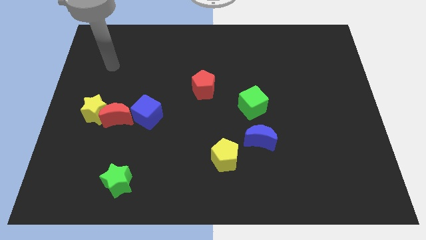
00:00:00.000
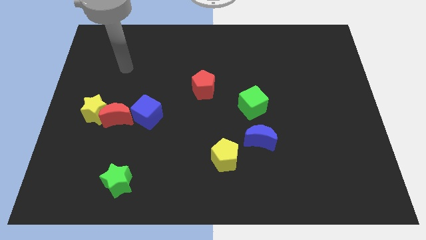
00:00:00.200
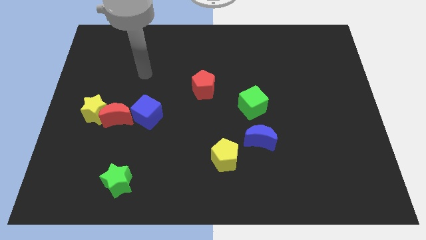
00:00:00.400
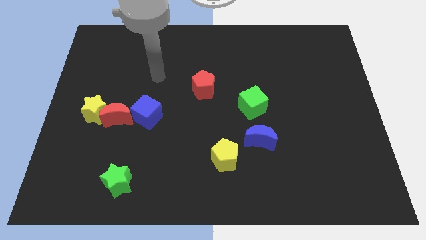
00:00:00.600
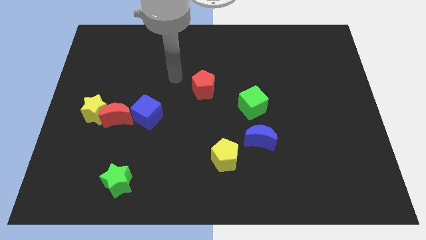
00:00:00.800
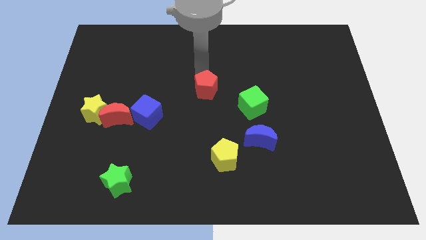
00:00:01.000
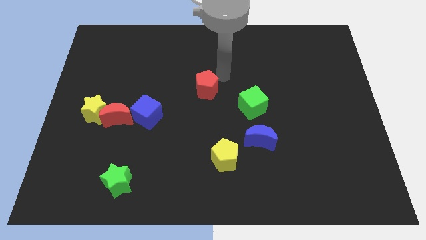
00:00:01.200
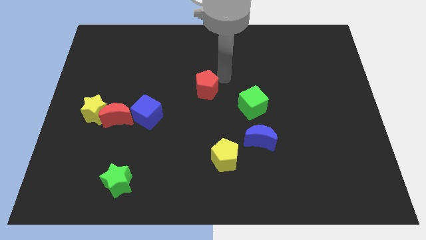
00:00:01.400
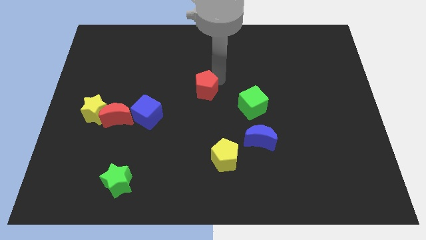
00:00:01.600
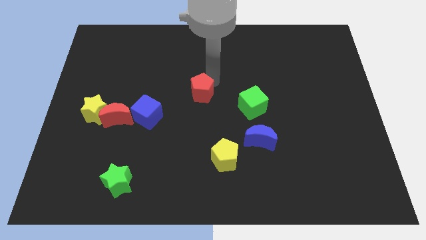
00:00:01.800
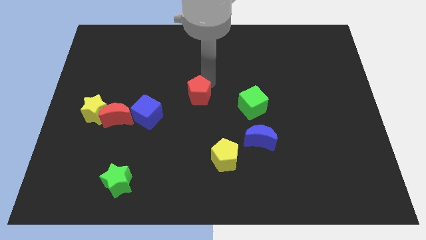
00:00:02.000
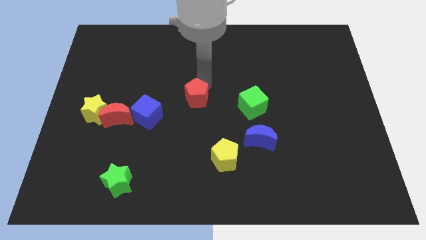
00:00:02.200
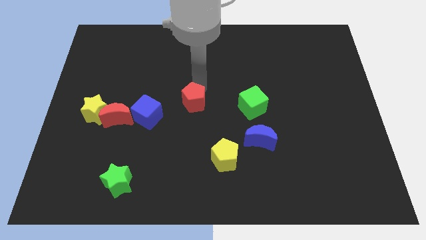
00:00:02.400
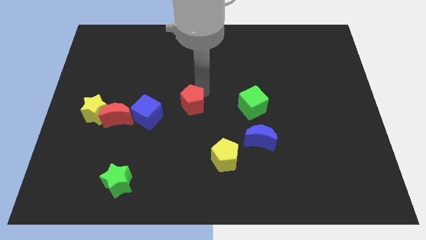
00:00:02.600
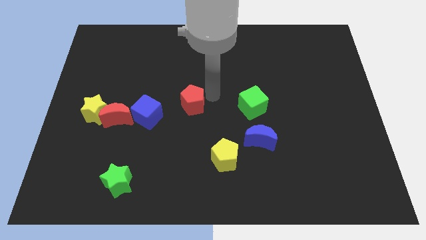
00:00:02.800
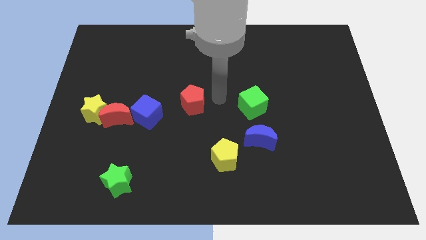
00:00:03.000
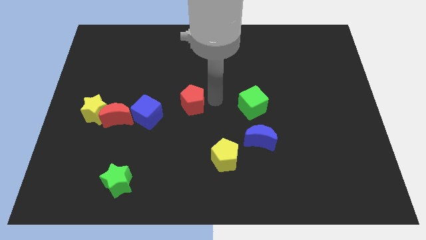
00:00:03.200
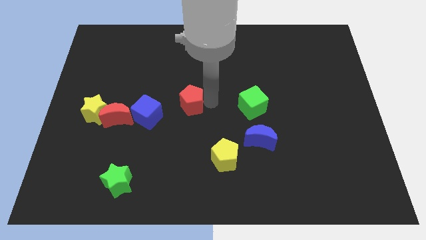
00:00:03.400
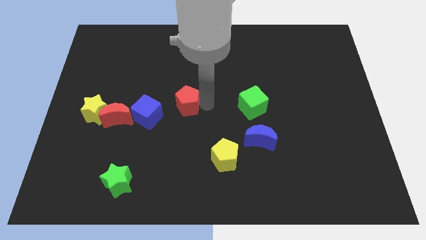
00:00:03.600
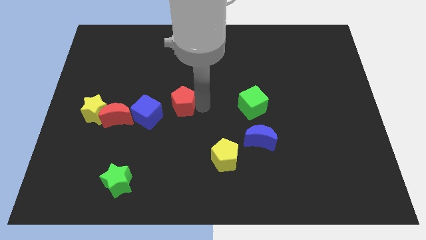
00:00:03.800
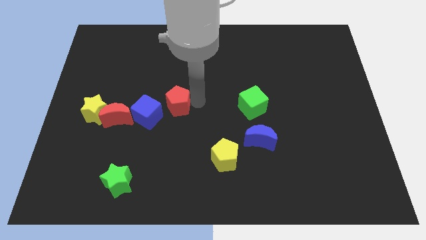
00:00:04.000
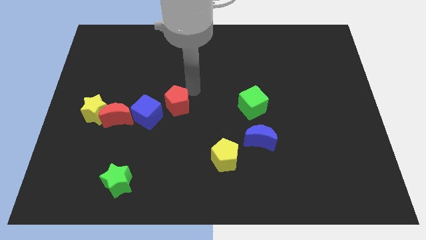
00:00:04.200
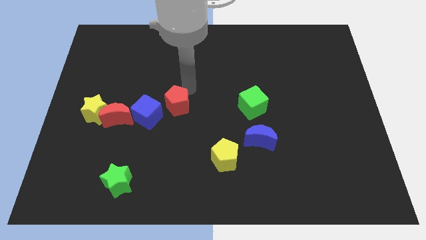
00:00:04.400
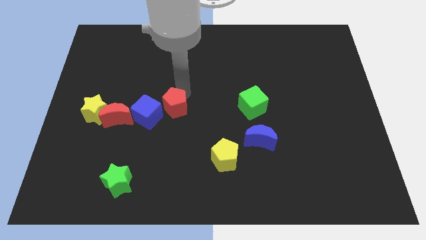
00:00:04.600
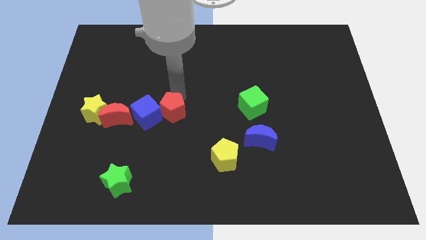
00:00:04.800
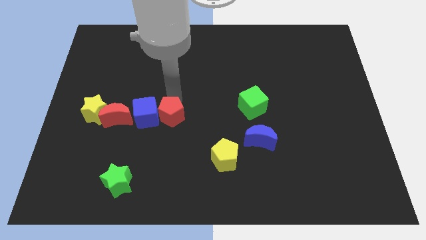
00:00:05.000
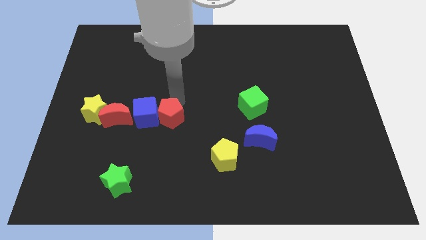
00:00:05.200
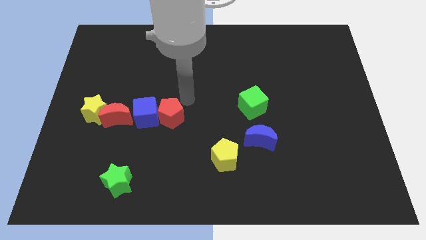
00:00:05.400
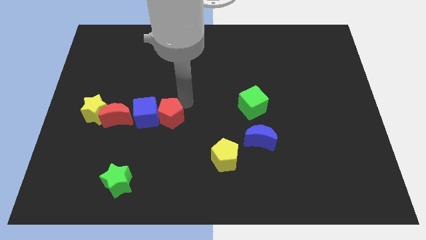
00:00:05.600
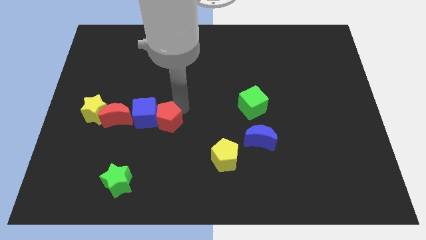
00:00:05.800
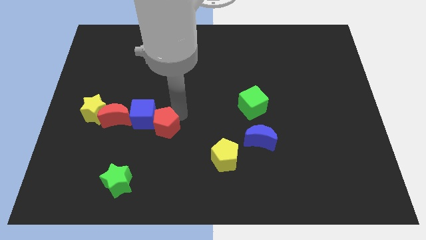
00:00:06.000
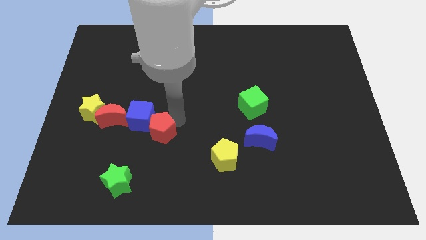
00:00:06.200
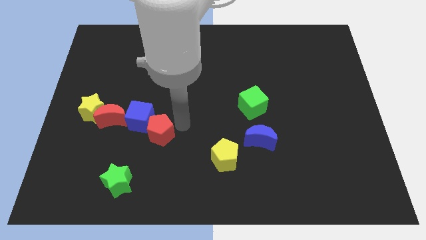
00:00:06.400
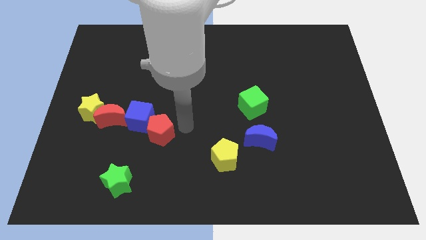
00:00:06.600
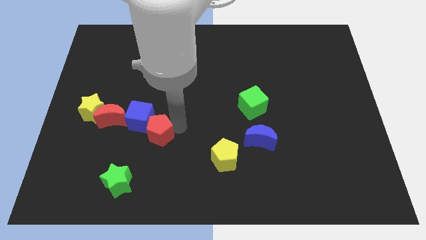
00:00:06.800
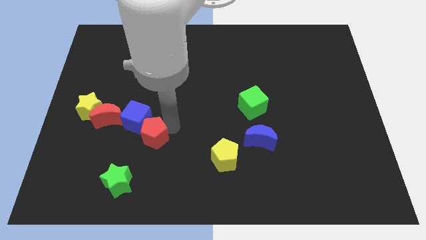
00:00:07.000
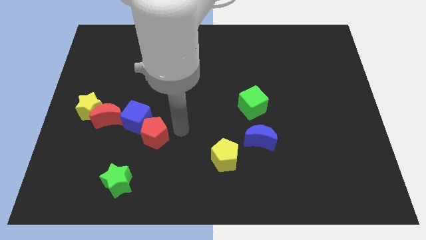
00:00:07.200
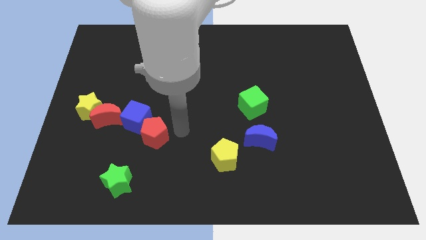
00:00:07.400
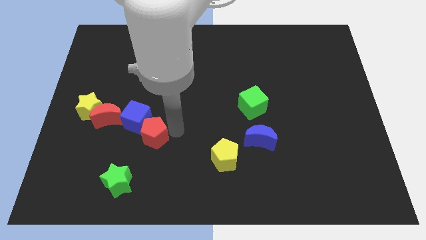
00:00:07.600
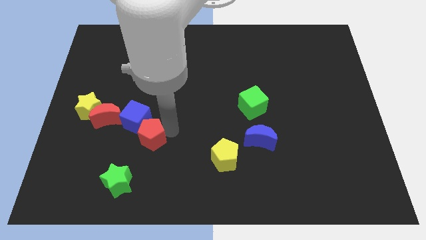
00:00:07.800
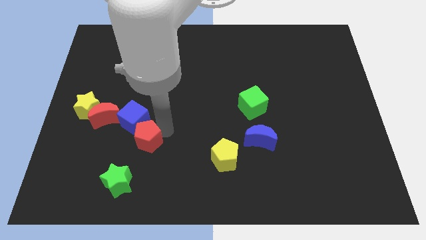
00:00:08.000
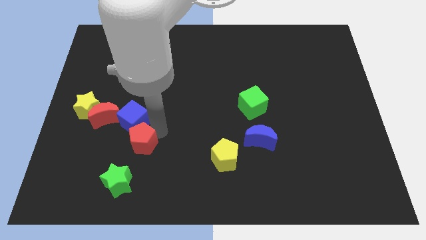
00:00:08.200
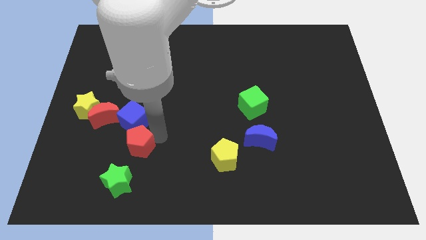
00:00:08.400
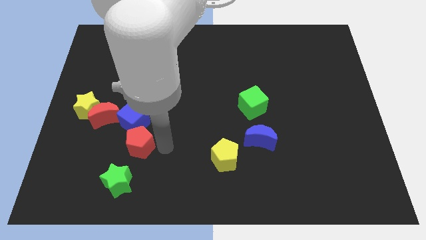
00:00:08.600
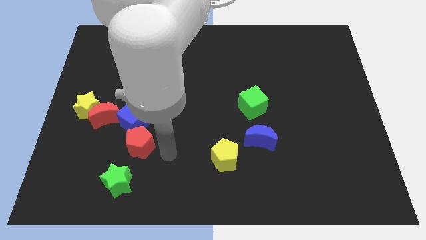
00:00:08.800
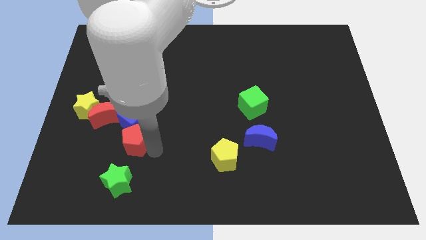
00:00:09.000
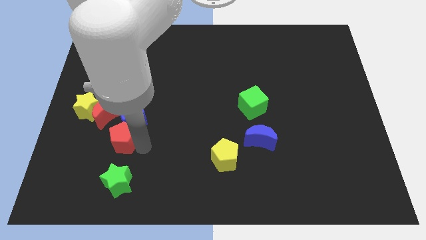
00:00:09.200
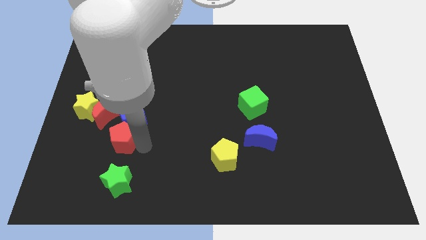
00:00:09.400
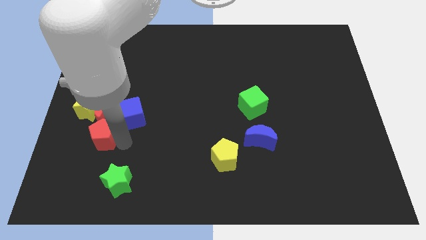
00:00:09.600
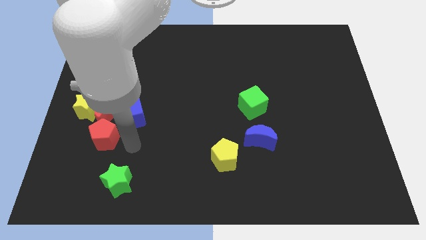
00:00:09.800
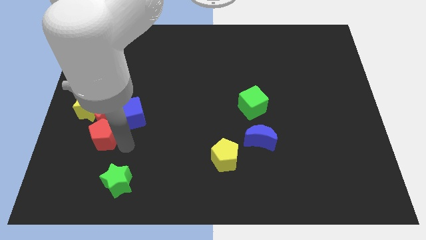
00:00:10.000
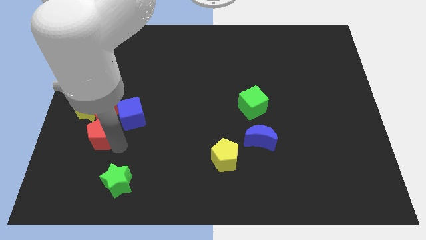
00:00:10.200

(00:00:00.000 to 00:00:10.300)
put the red pentagon to the bottom left of the red moon

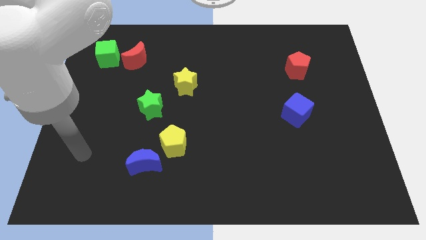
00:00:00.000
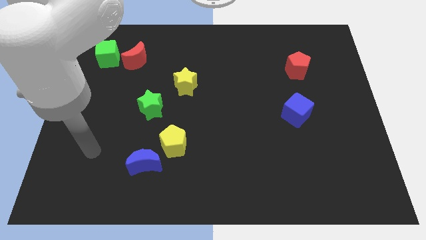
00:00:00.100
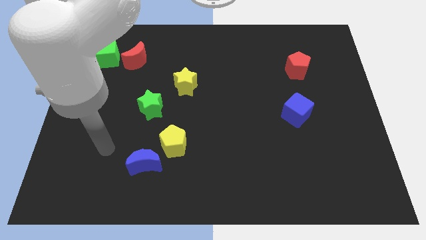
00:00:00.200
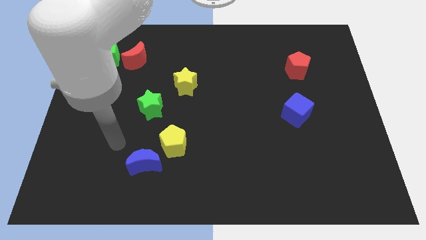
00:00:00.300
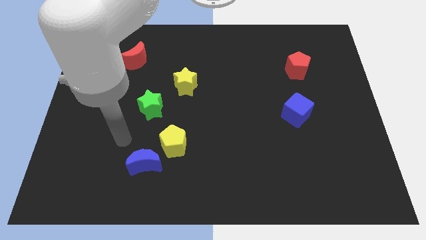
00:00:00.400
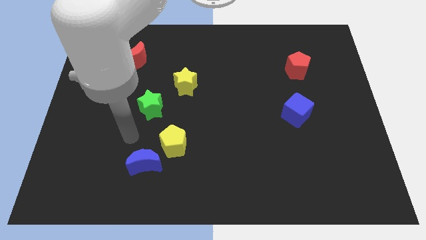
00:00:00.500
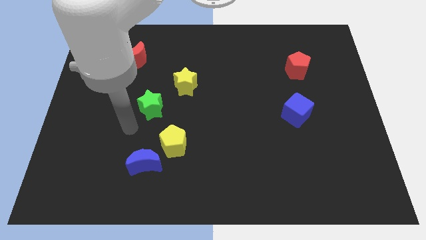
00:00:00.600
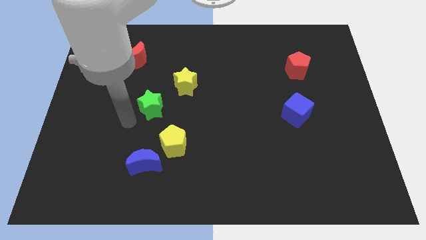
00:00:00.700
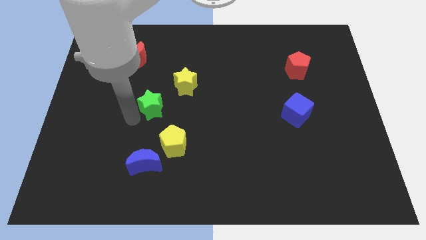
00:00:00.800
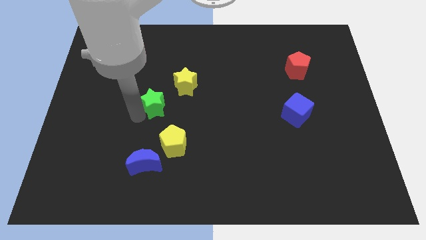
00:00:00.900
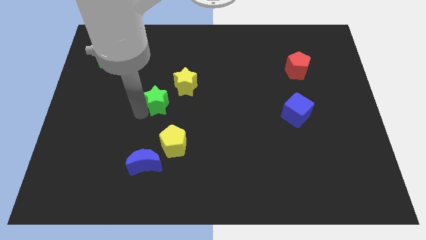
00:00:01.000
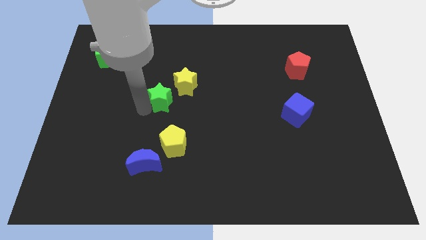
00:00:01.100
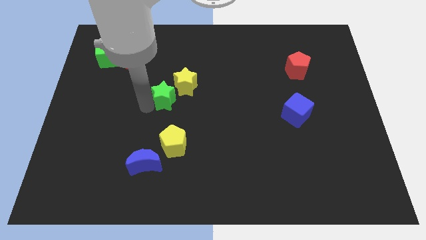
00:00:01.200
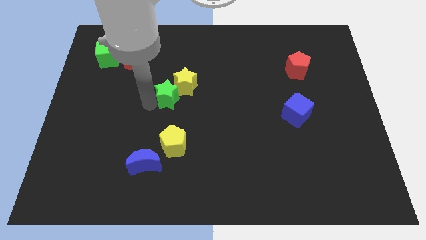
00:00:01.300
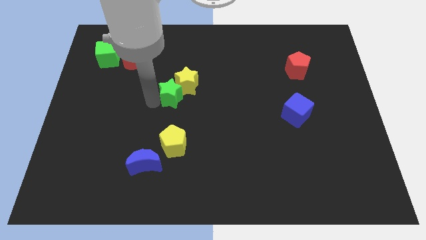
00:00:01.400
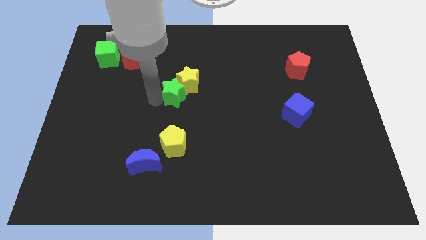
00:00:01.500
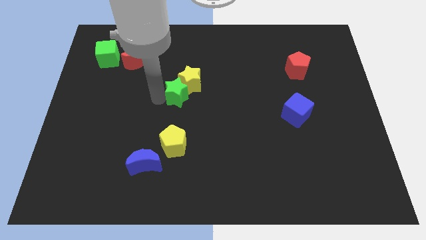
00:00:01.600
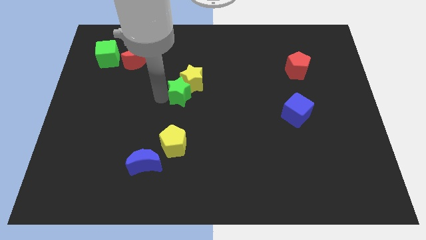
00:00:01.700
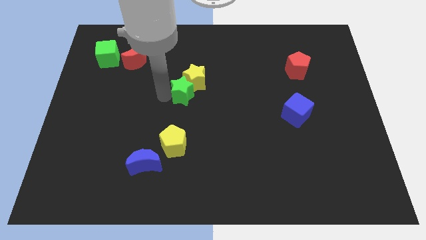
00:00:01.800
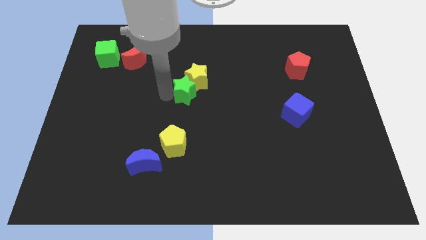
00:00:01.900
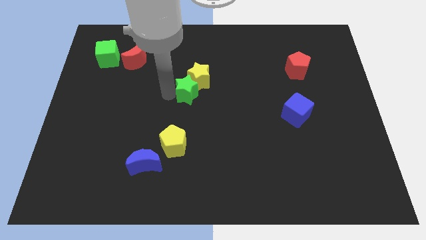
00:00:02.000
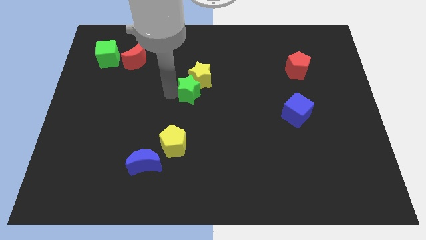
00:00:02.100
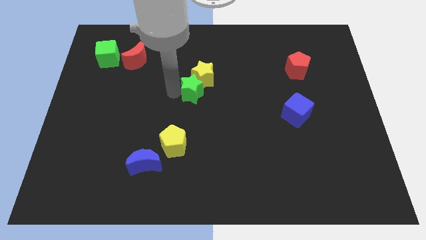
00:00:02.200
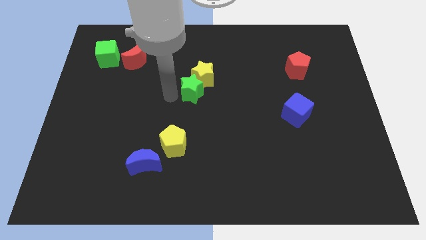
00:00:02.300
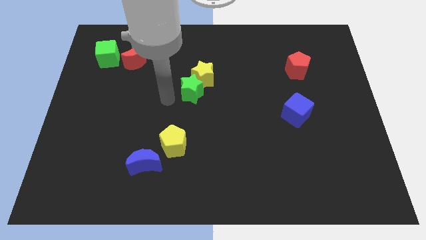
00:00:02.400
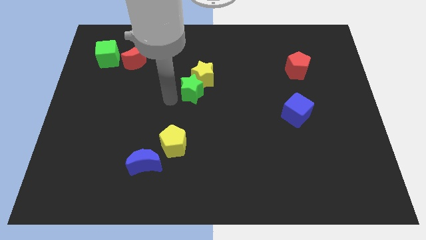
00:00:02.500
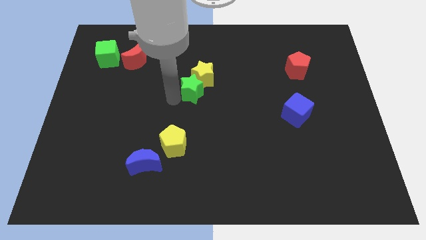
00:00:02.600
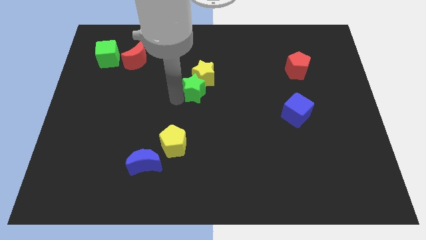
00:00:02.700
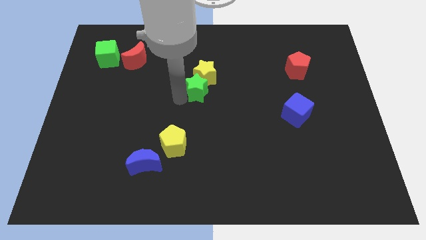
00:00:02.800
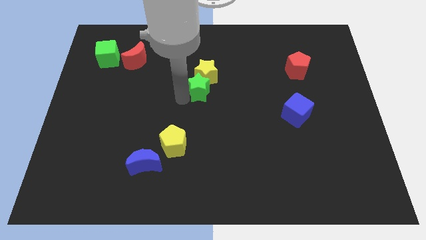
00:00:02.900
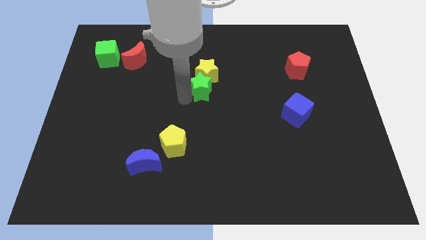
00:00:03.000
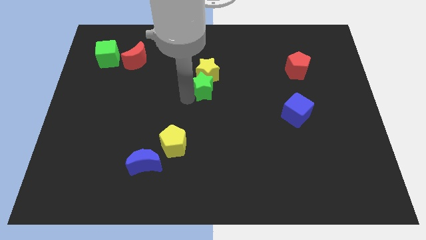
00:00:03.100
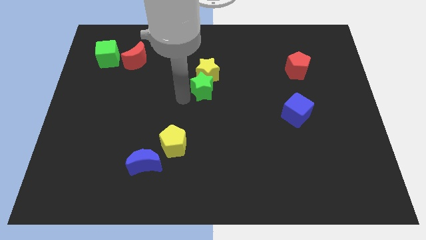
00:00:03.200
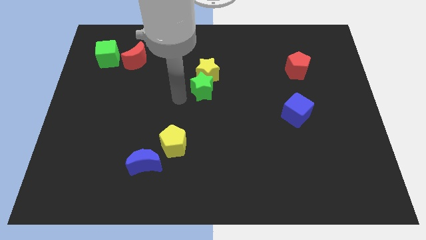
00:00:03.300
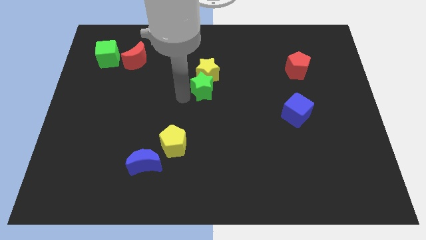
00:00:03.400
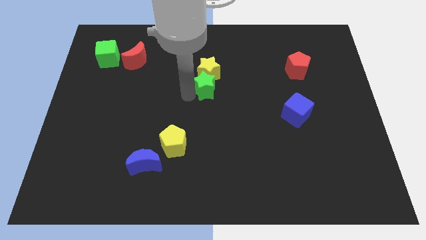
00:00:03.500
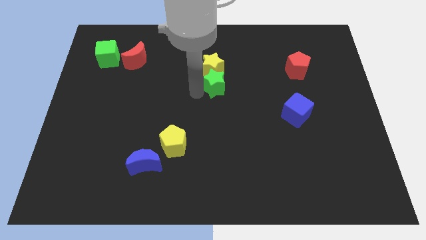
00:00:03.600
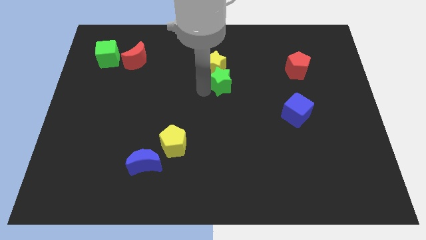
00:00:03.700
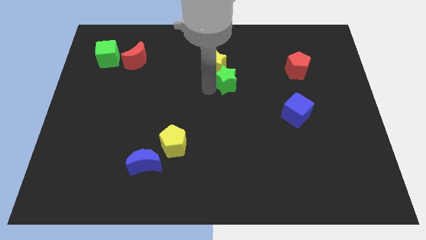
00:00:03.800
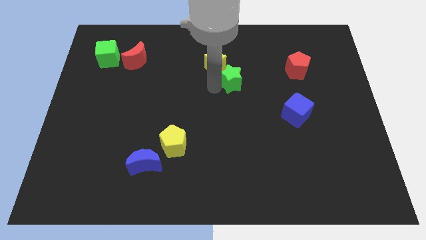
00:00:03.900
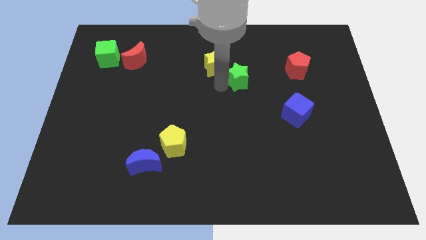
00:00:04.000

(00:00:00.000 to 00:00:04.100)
put the green star just left of the red pentagon
